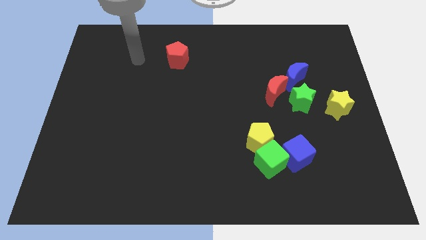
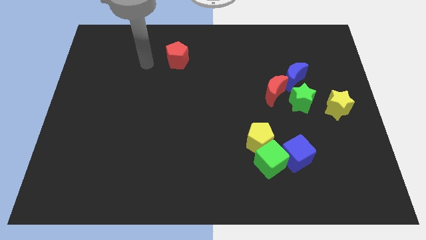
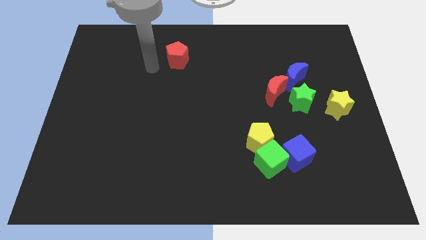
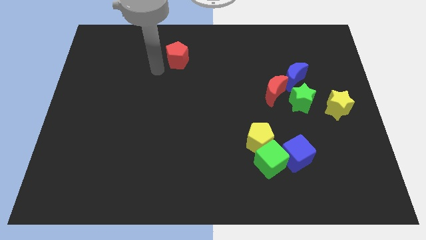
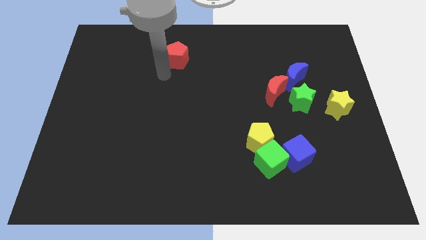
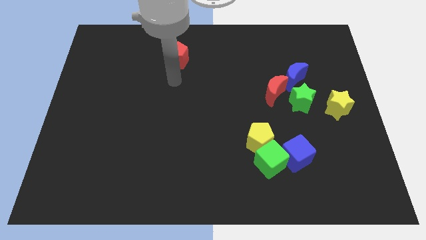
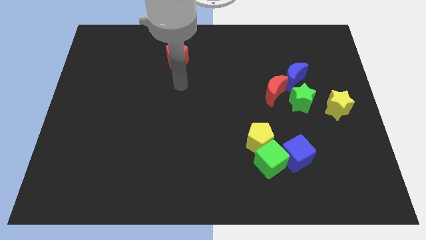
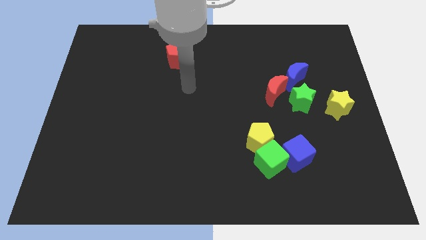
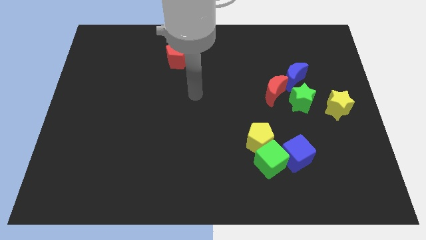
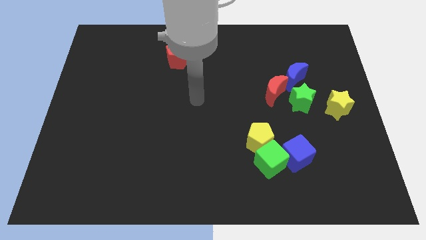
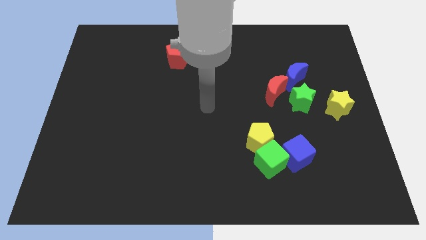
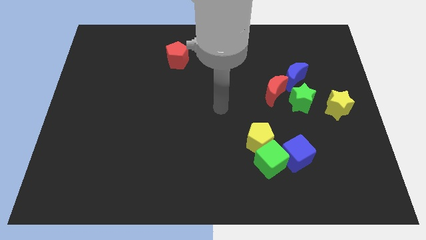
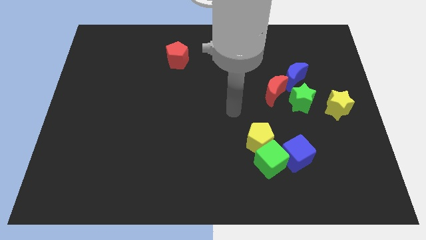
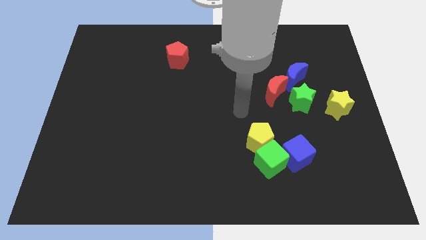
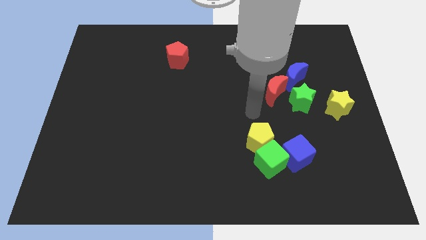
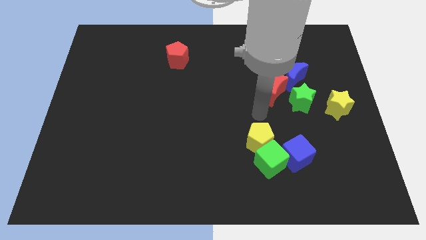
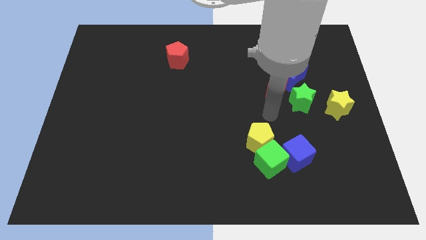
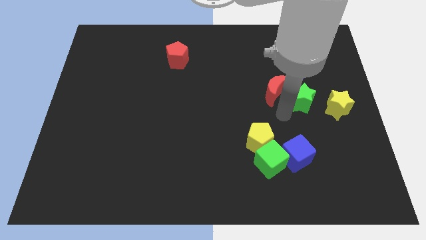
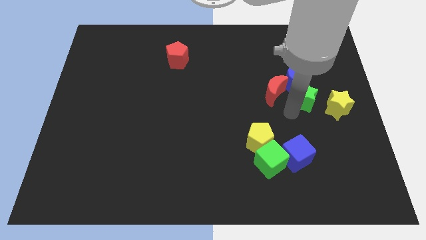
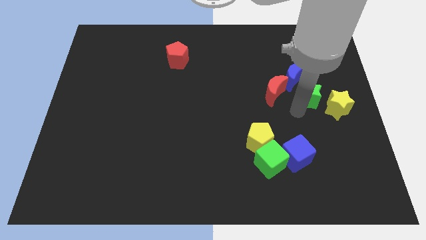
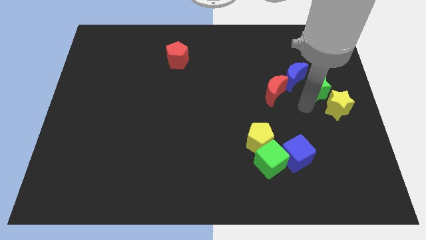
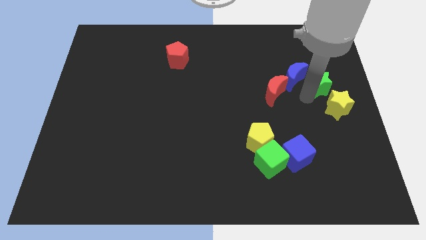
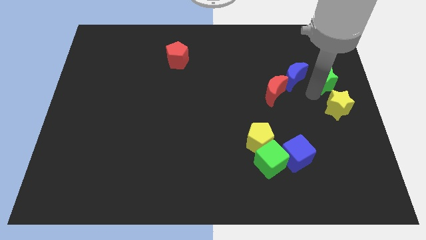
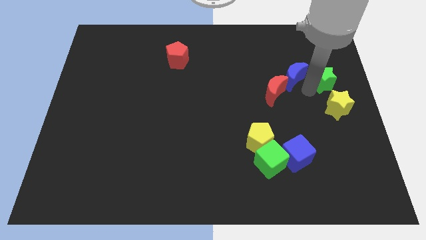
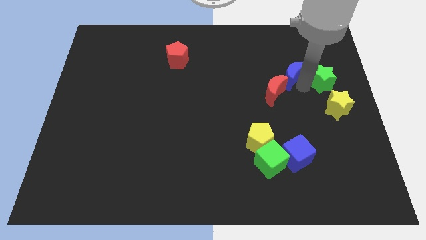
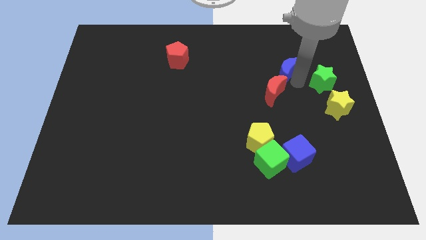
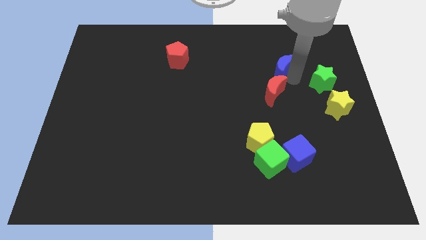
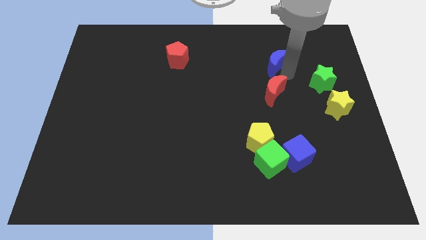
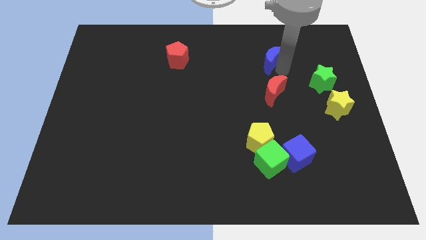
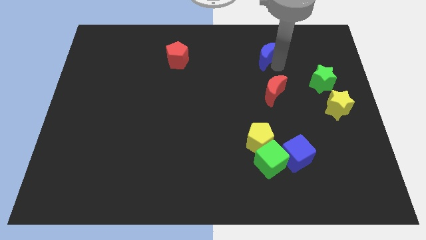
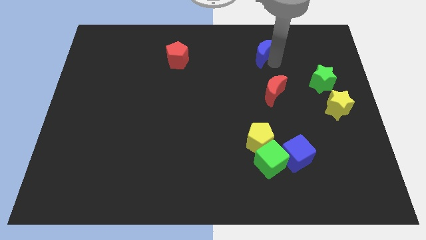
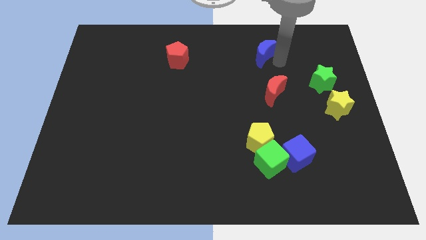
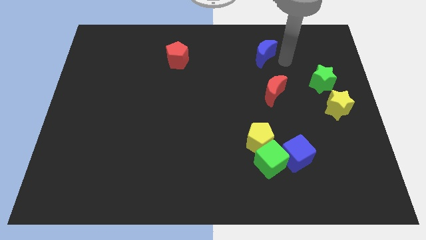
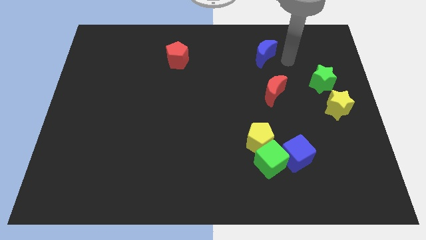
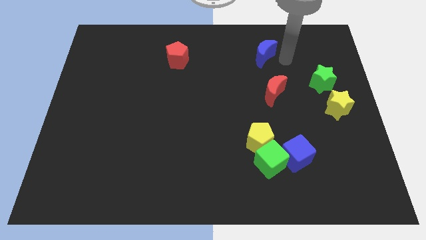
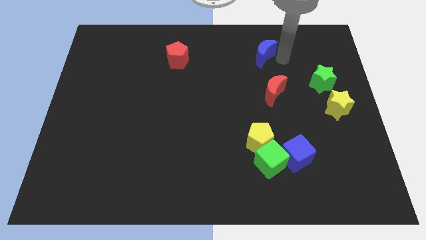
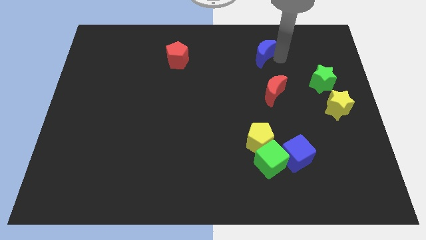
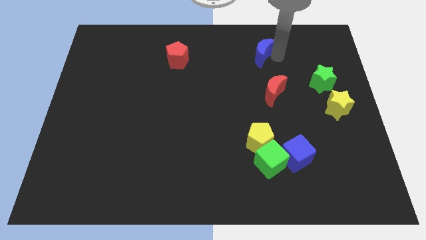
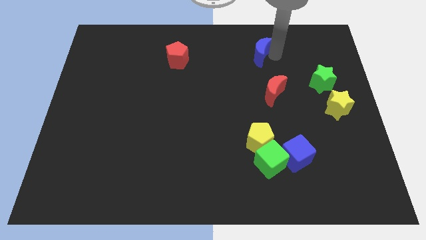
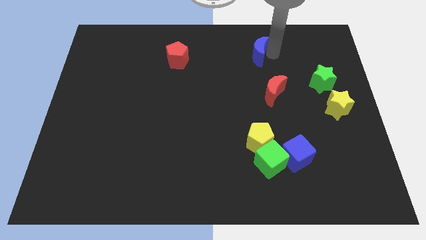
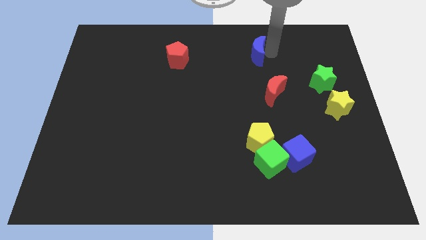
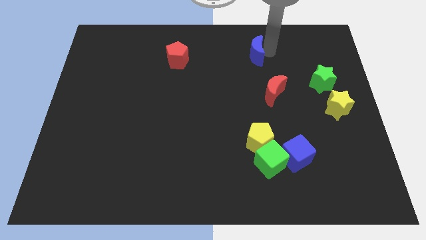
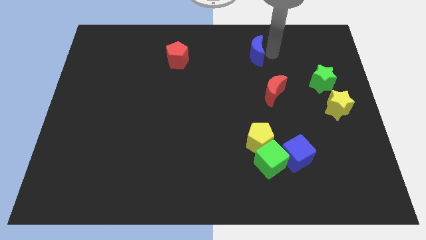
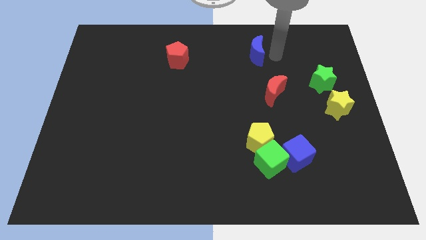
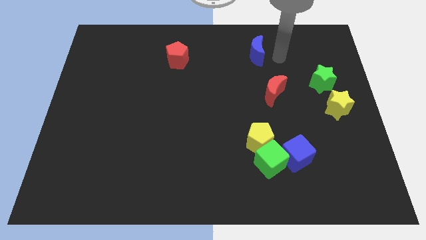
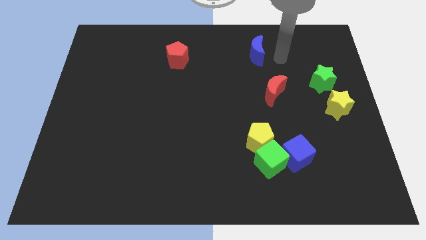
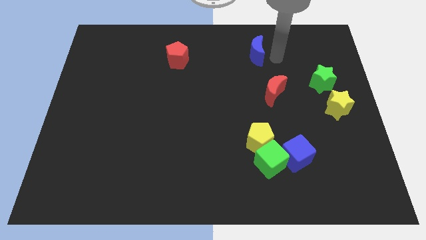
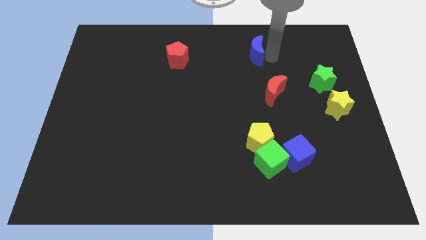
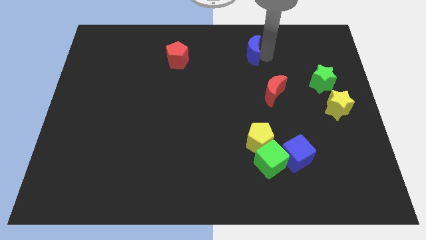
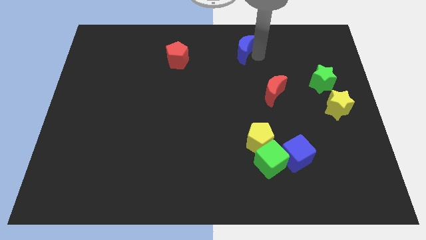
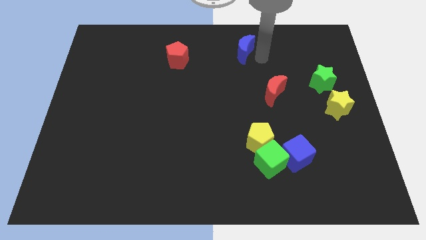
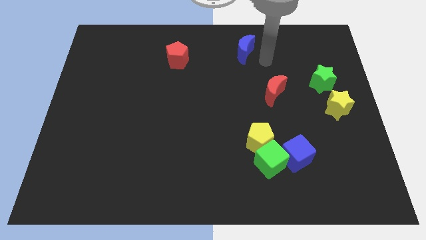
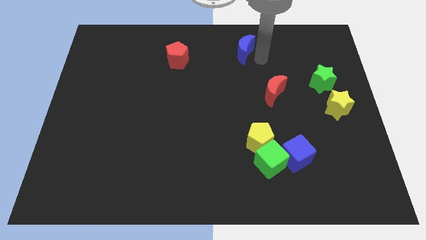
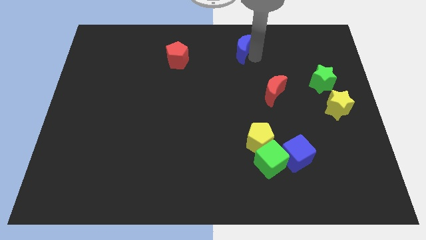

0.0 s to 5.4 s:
move the blue moon to the towards your base

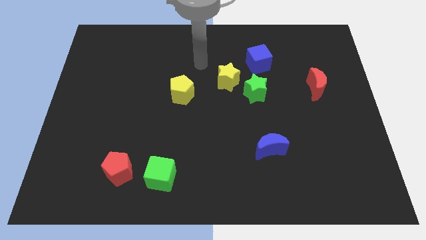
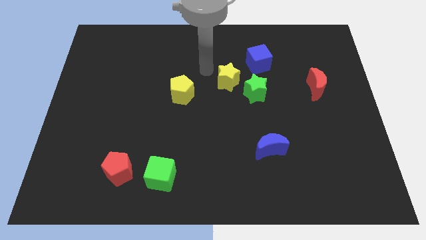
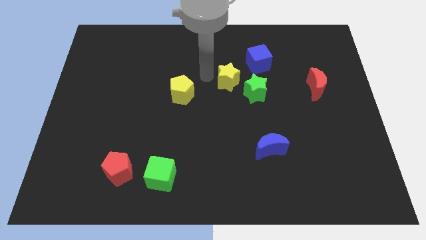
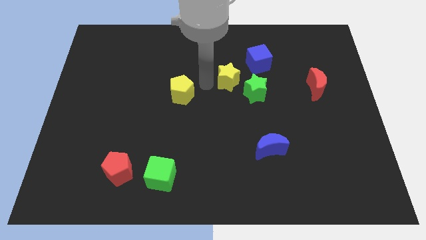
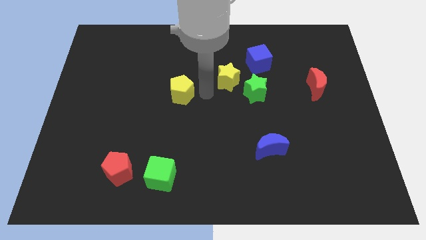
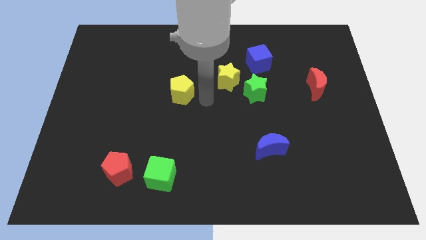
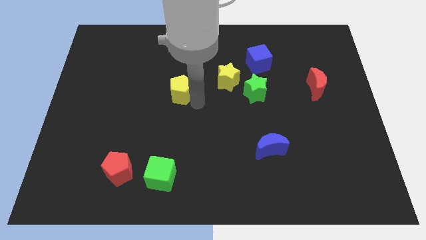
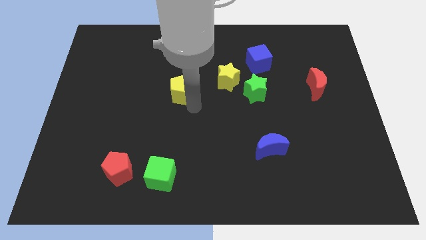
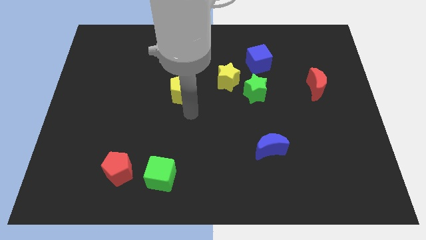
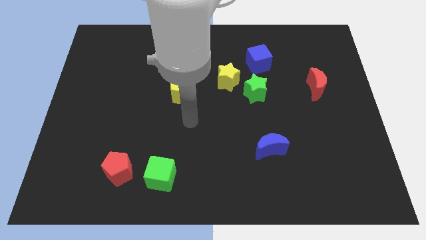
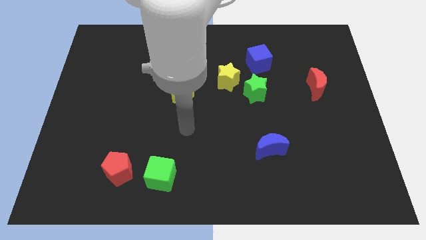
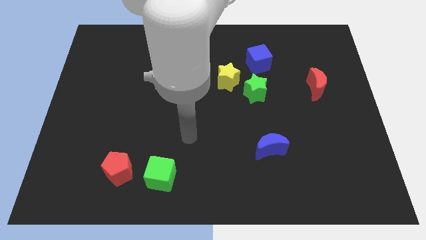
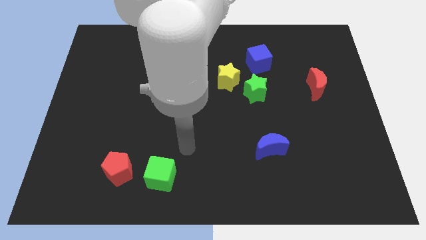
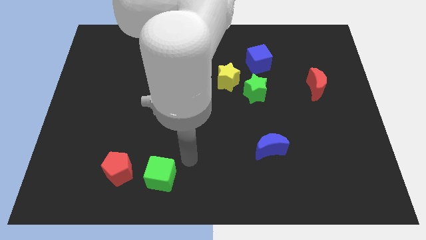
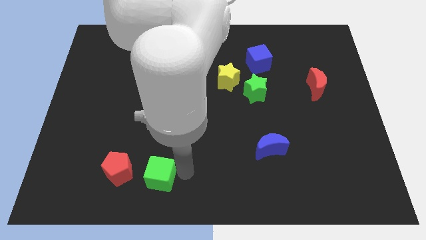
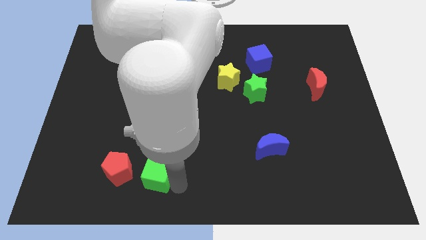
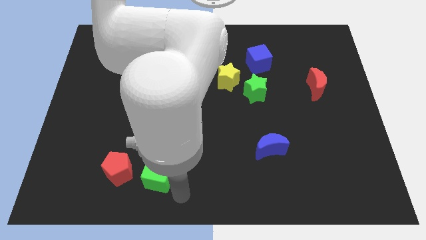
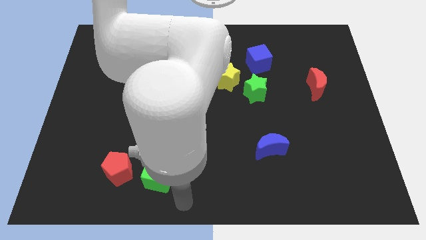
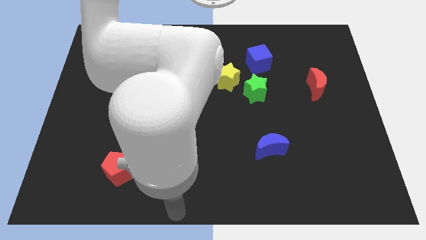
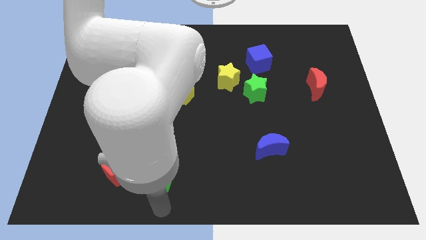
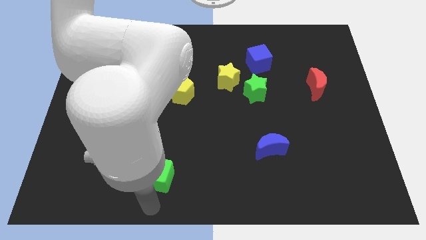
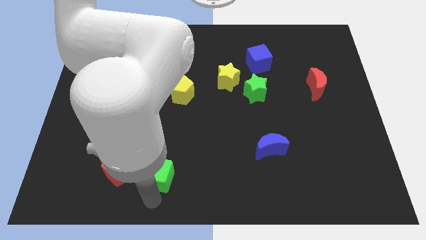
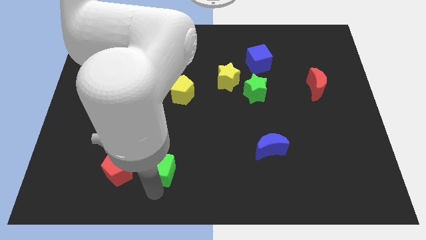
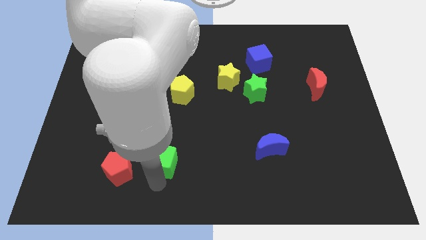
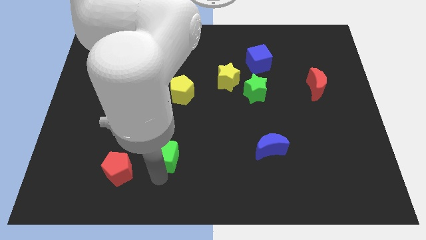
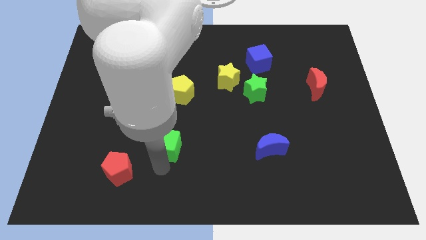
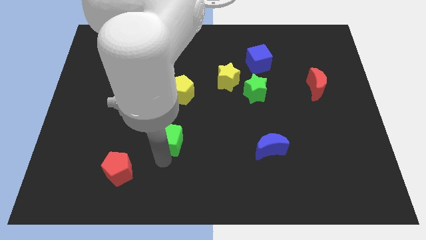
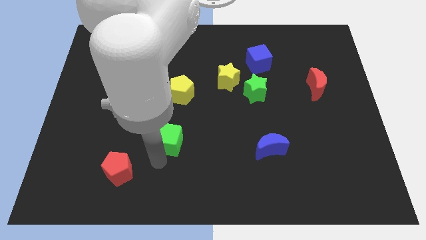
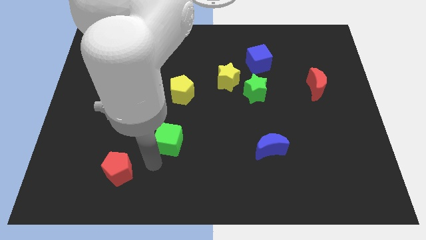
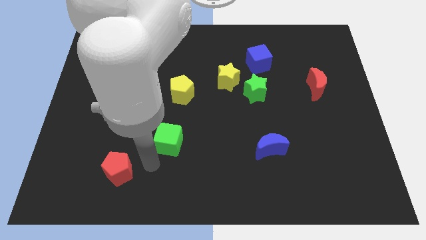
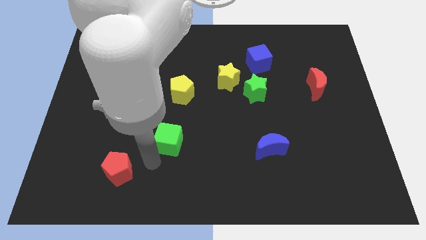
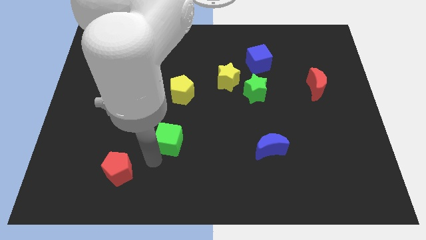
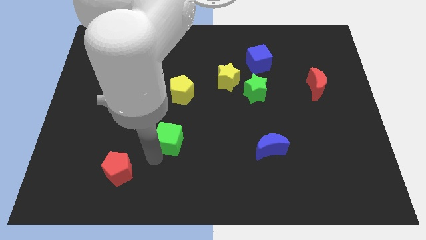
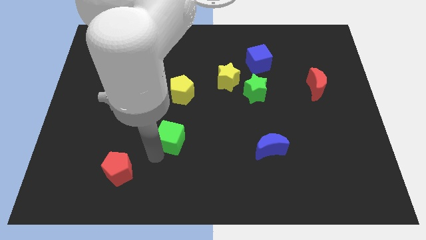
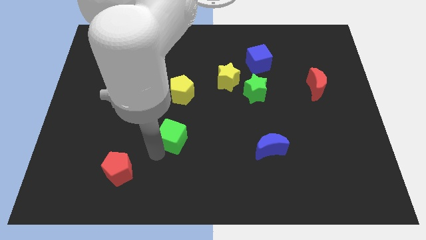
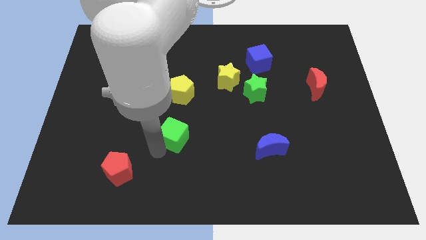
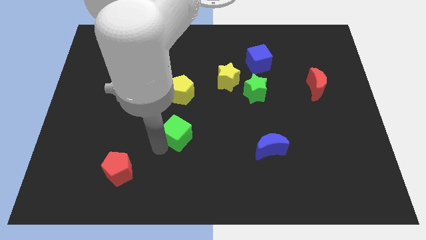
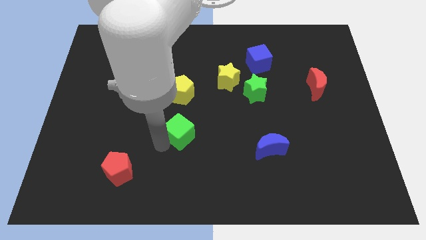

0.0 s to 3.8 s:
slide the green cube to the middle
